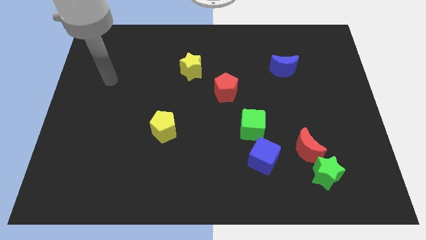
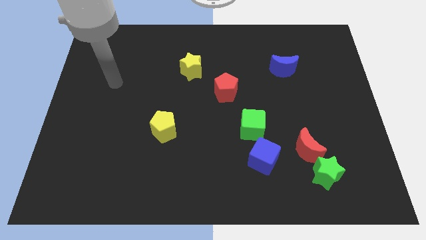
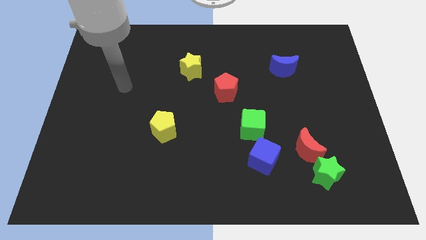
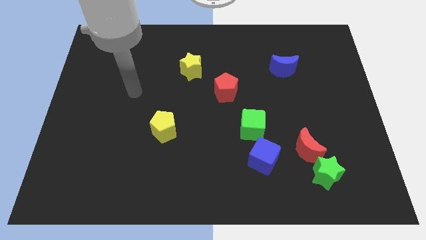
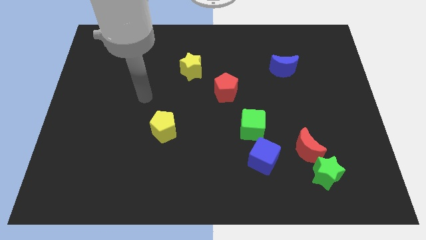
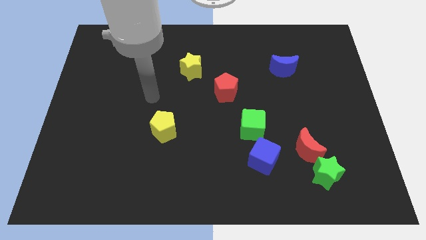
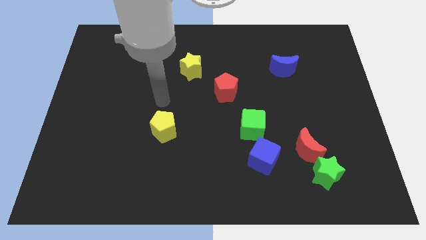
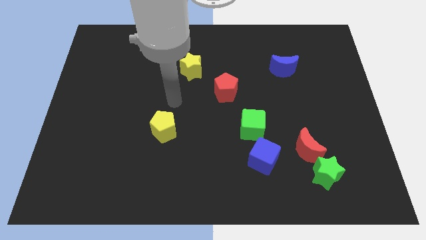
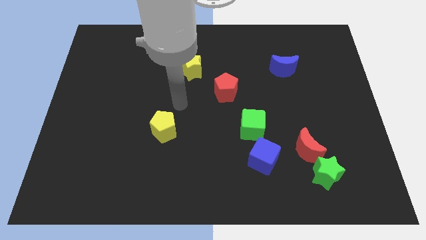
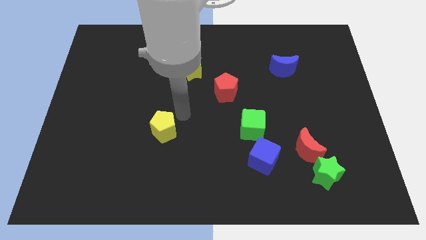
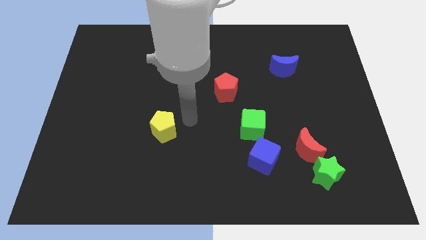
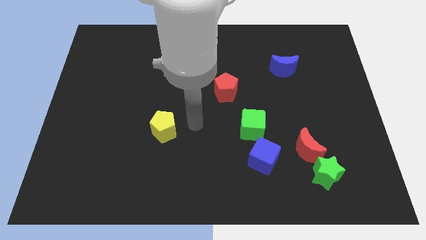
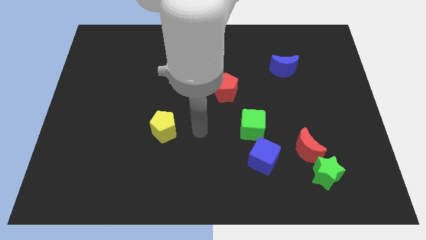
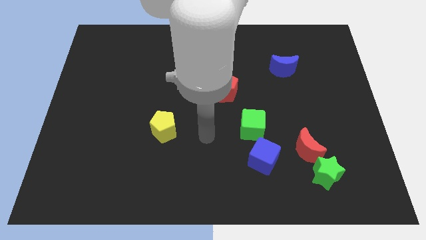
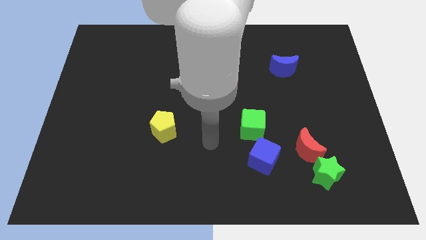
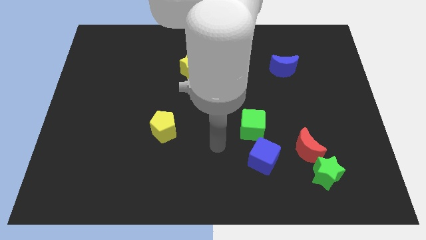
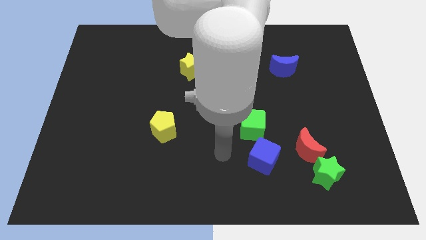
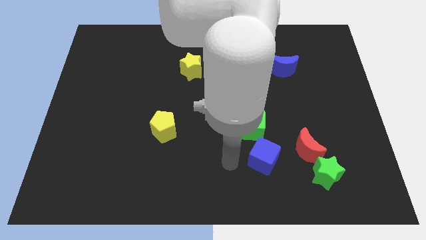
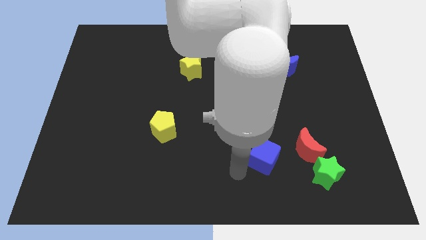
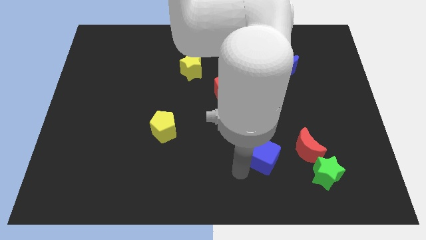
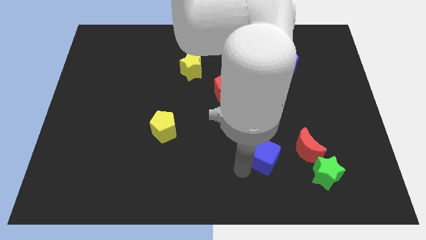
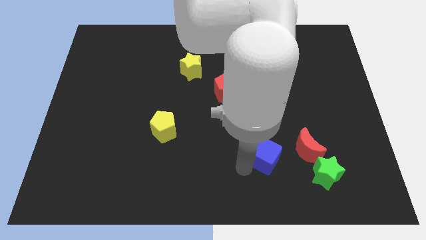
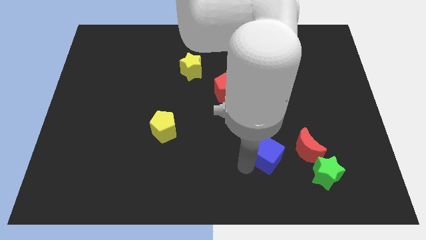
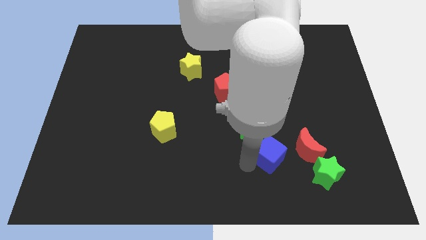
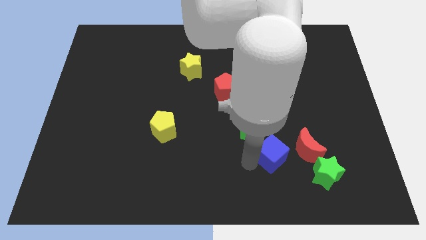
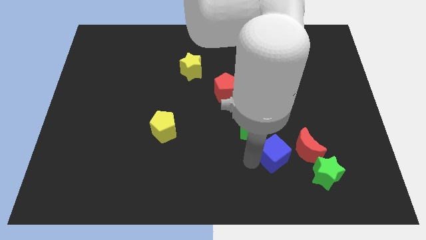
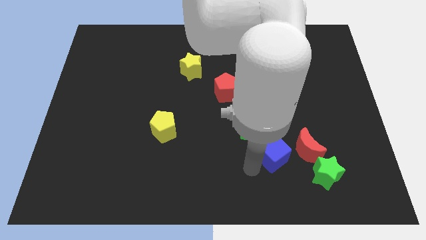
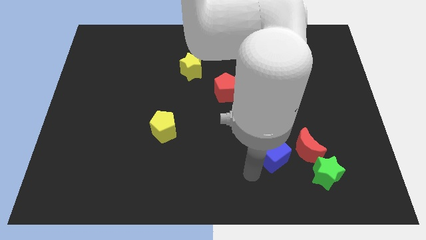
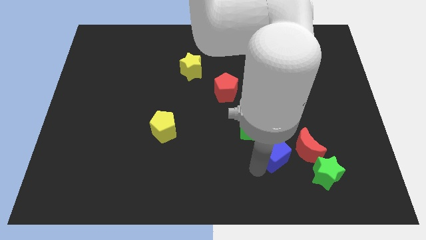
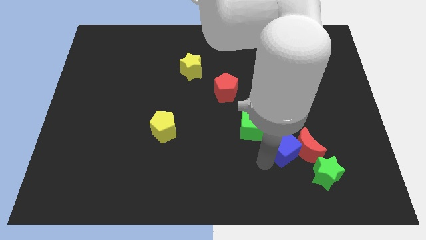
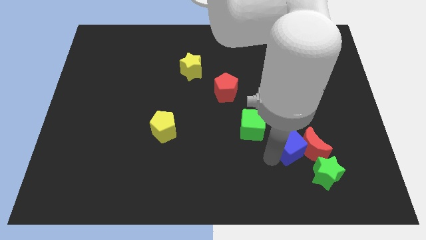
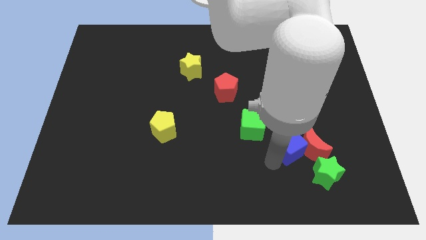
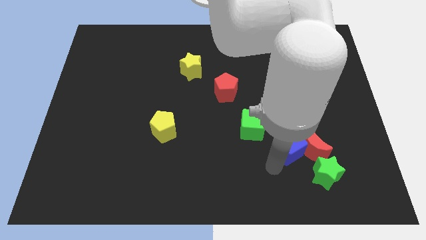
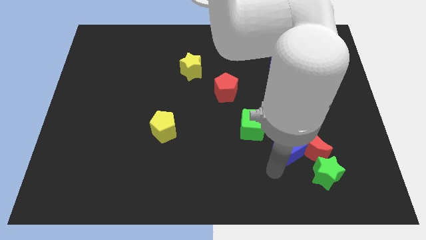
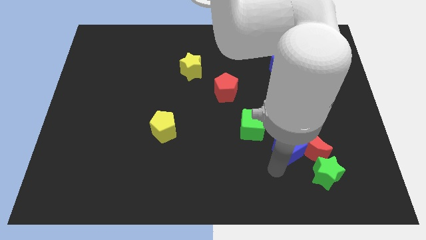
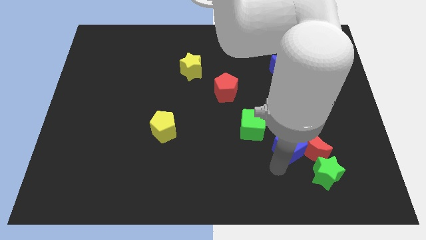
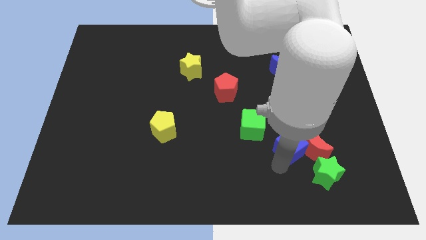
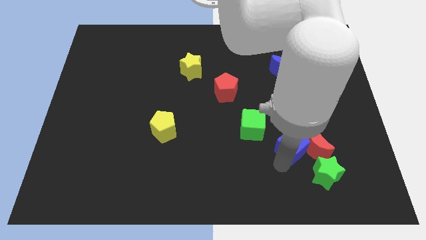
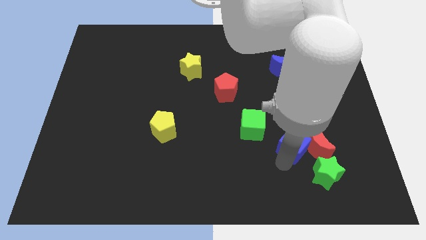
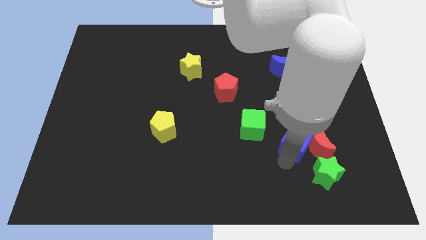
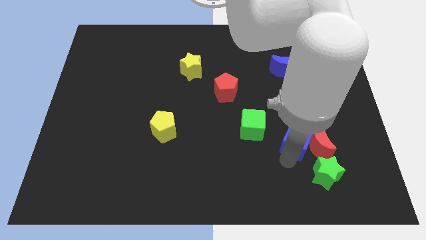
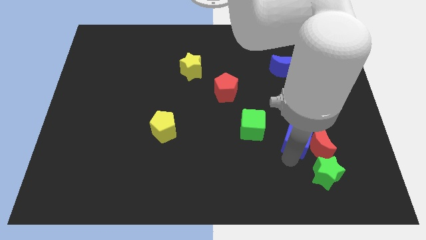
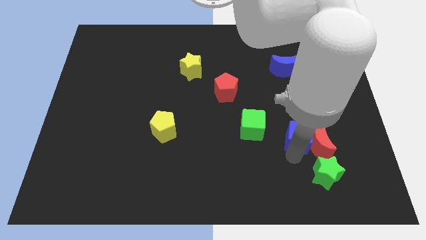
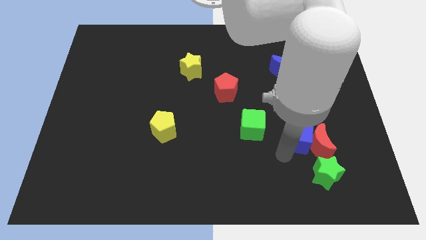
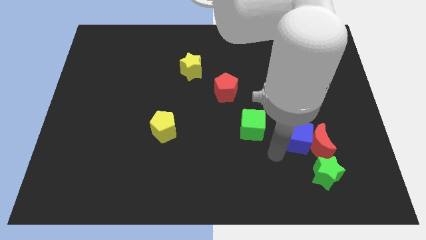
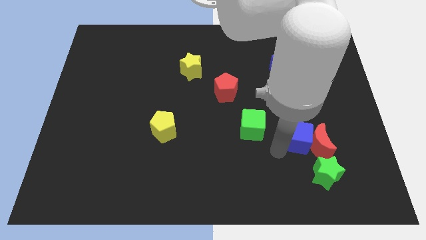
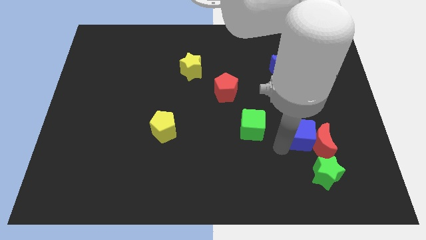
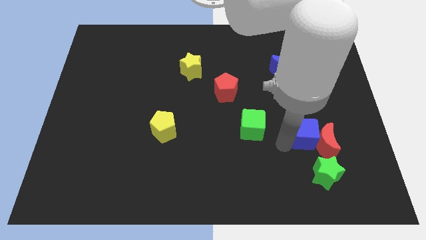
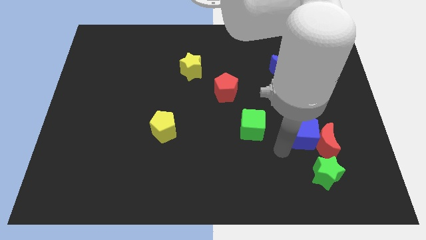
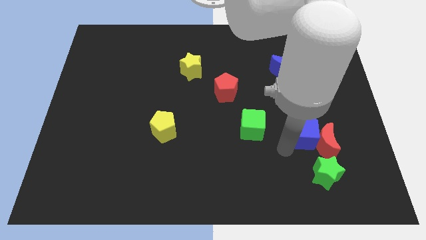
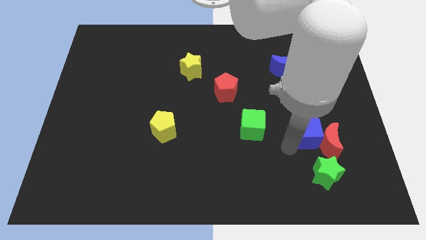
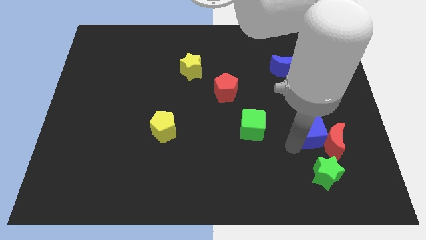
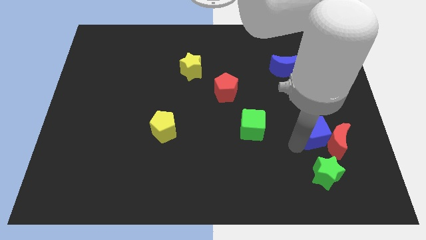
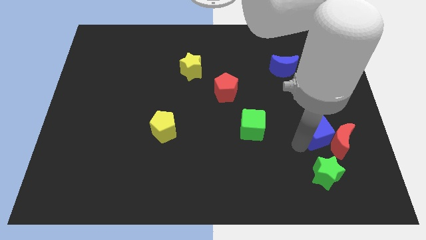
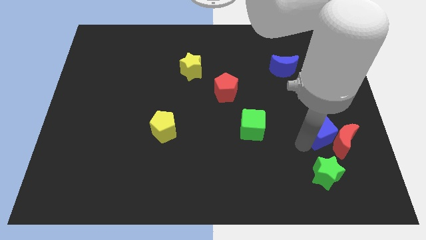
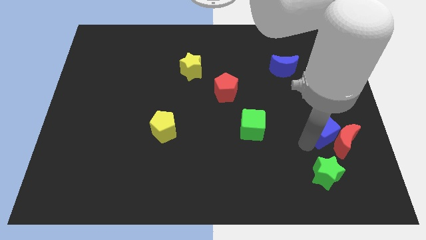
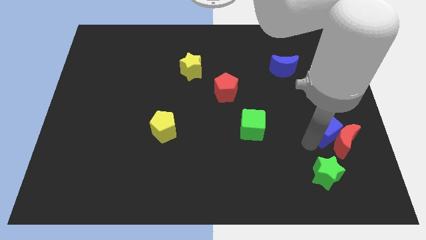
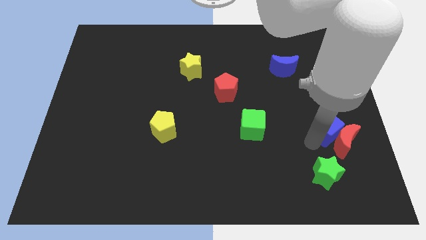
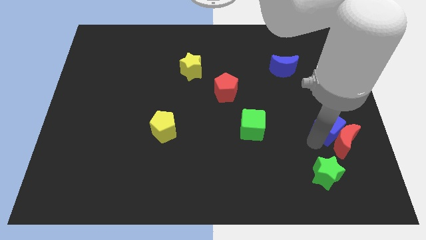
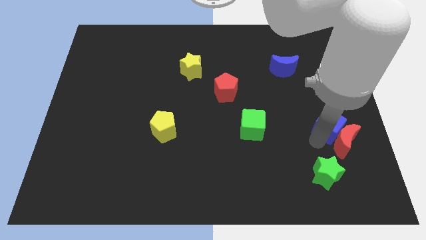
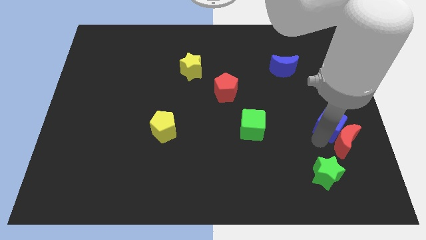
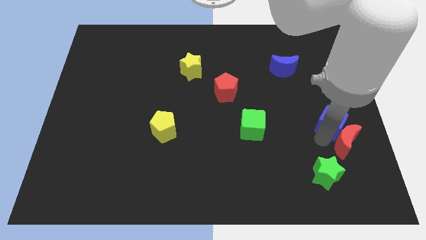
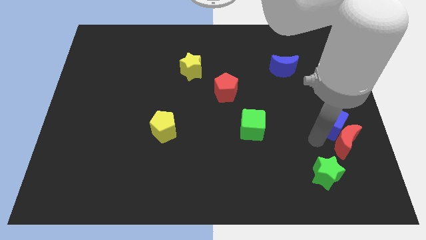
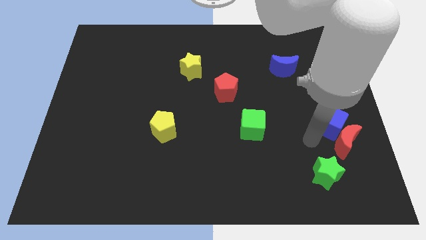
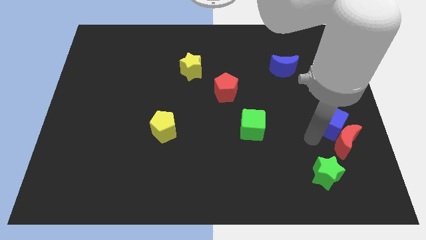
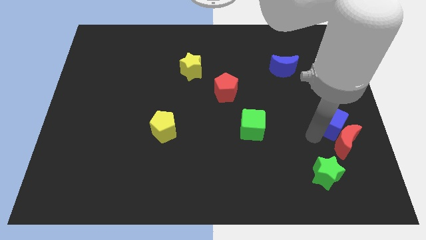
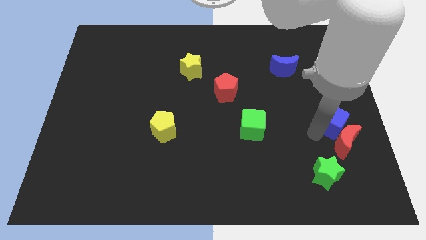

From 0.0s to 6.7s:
move the blue cube to the right side
